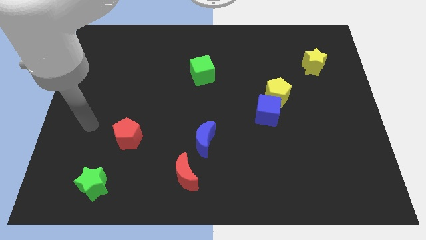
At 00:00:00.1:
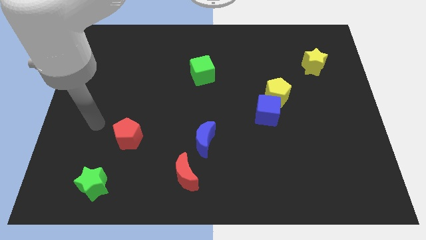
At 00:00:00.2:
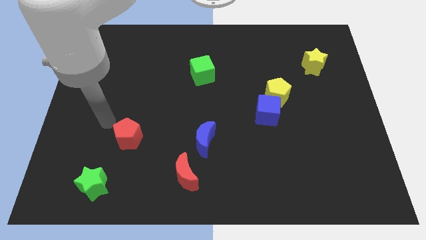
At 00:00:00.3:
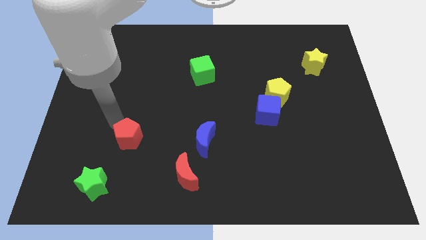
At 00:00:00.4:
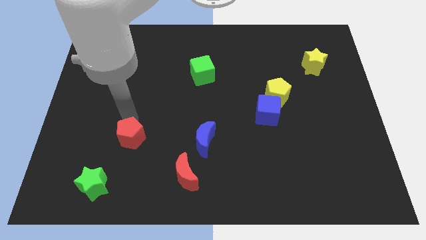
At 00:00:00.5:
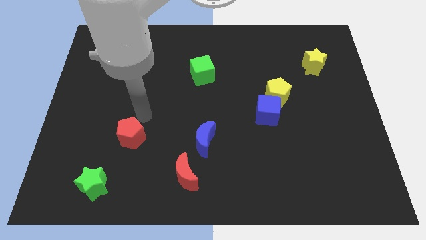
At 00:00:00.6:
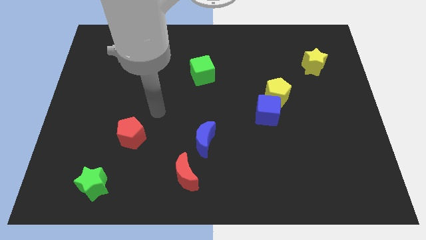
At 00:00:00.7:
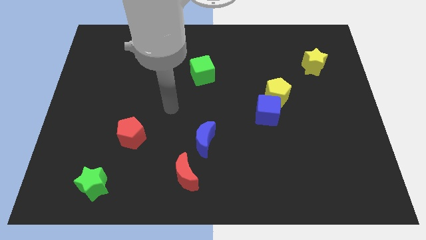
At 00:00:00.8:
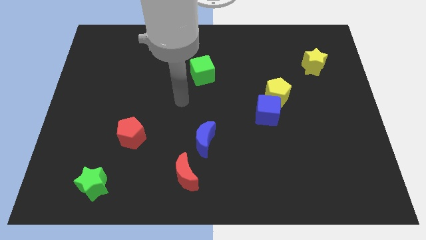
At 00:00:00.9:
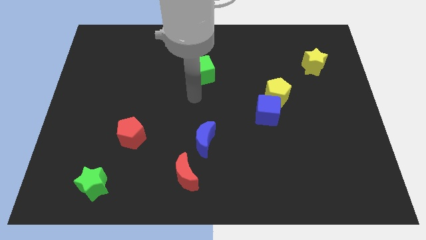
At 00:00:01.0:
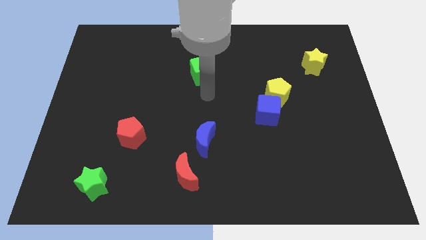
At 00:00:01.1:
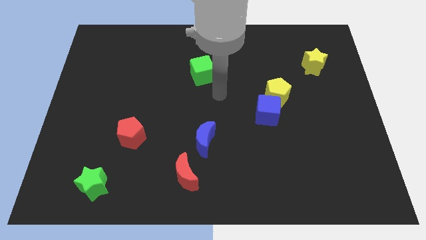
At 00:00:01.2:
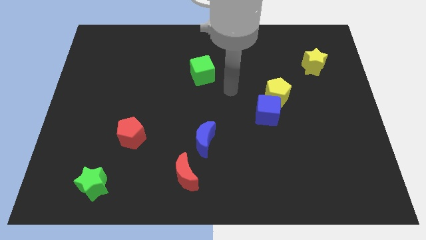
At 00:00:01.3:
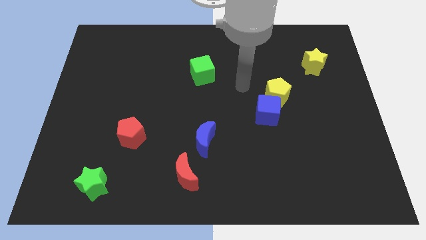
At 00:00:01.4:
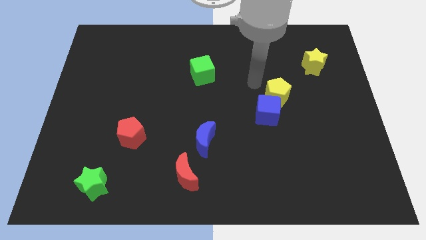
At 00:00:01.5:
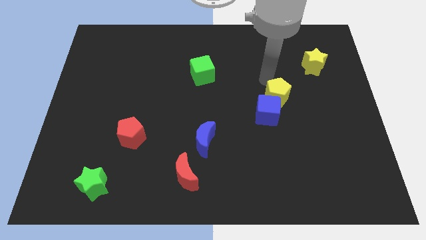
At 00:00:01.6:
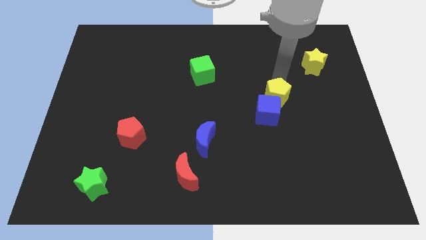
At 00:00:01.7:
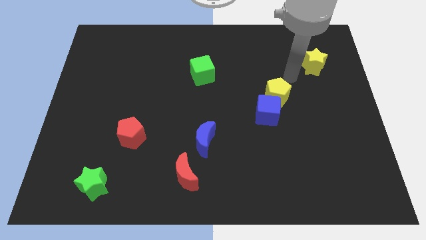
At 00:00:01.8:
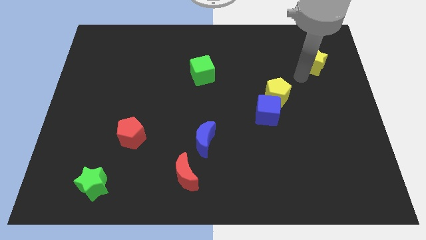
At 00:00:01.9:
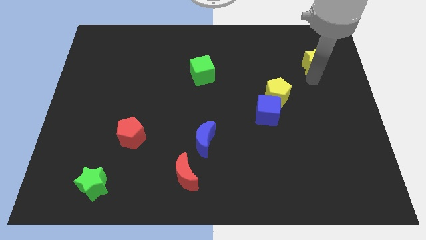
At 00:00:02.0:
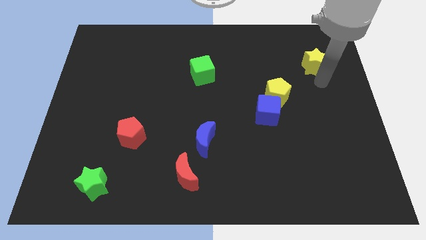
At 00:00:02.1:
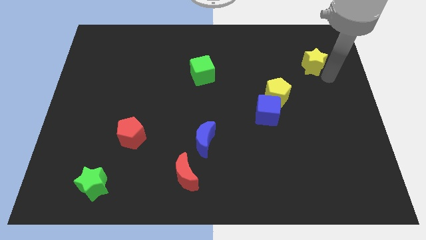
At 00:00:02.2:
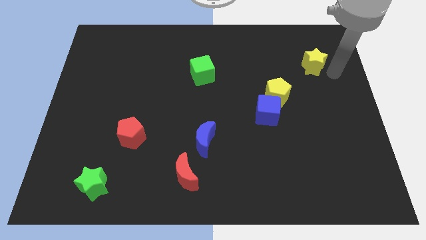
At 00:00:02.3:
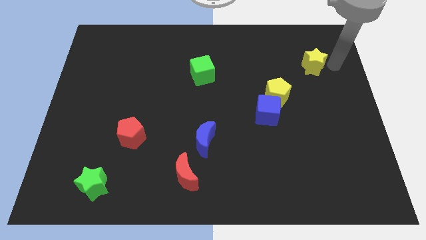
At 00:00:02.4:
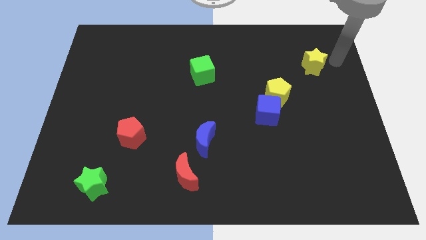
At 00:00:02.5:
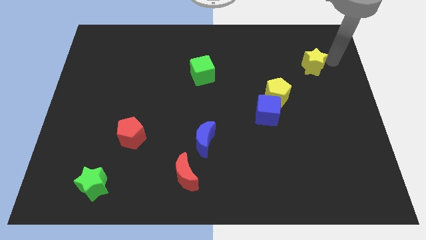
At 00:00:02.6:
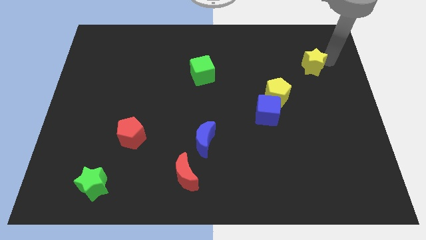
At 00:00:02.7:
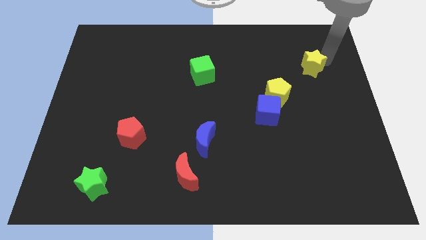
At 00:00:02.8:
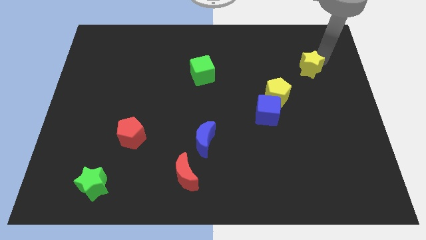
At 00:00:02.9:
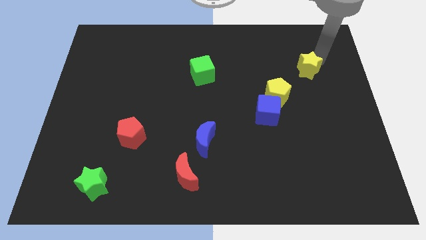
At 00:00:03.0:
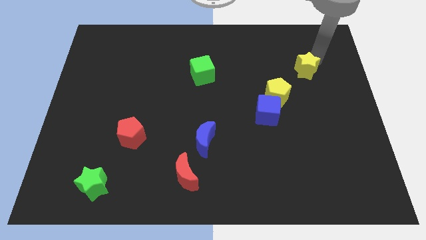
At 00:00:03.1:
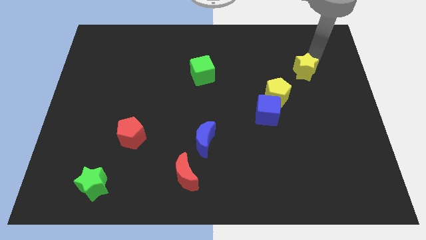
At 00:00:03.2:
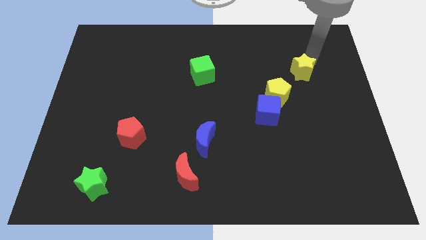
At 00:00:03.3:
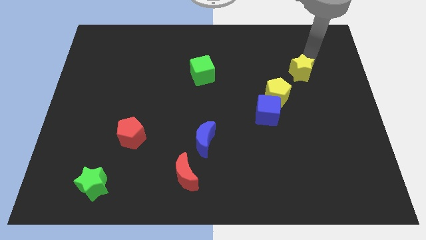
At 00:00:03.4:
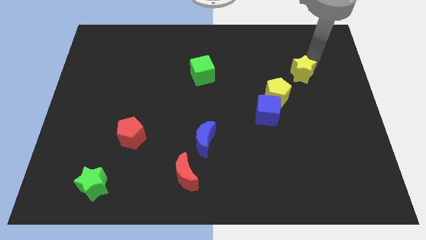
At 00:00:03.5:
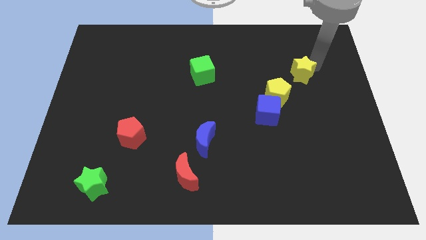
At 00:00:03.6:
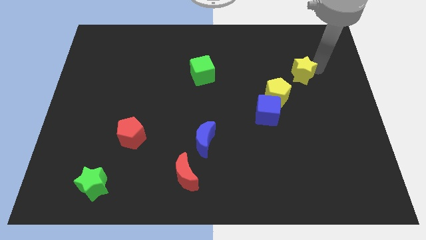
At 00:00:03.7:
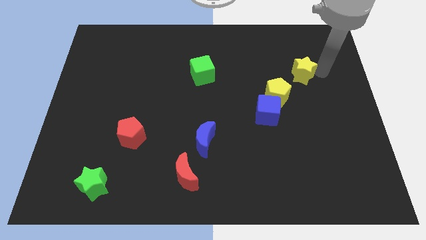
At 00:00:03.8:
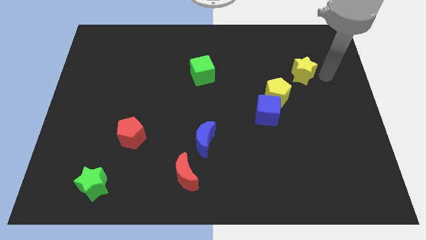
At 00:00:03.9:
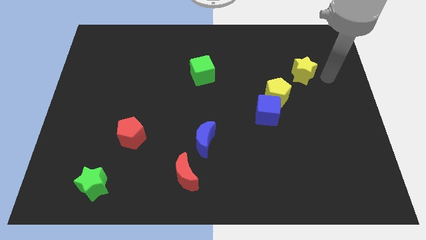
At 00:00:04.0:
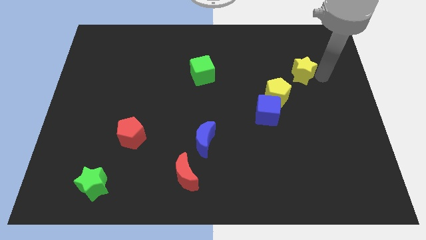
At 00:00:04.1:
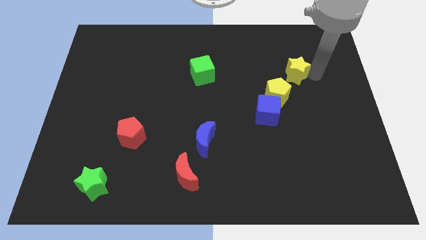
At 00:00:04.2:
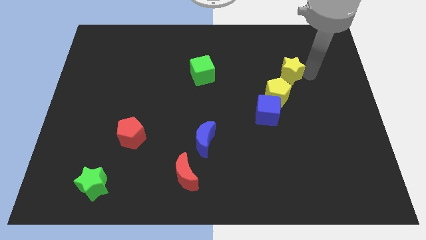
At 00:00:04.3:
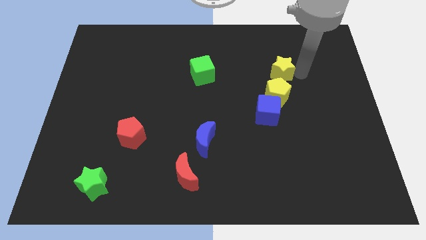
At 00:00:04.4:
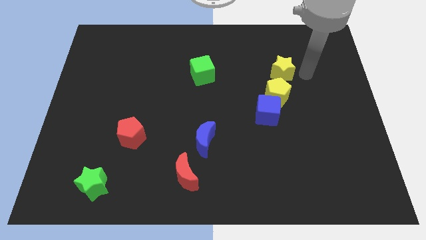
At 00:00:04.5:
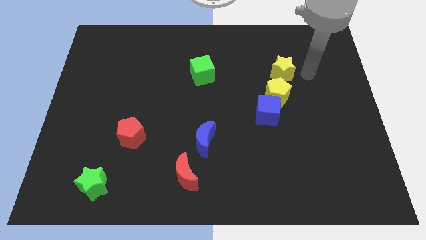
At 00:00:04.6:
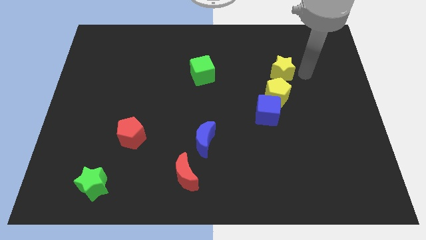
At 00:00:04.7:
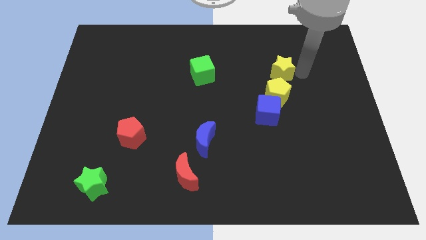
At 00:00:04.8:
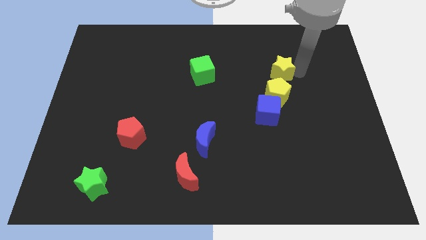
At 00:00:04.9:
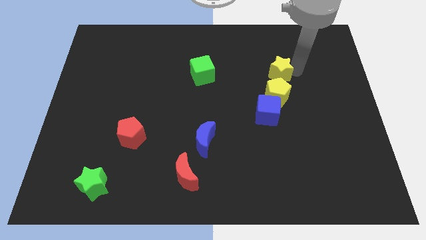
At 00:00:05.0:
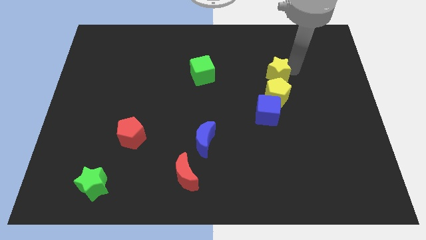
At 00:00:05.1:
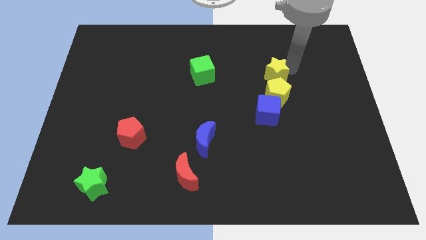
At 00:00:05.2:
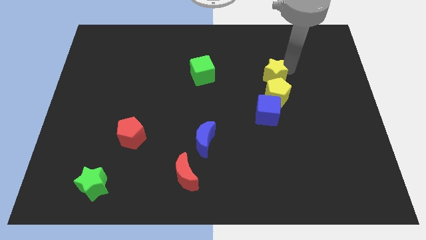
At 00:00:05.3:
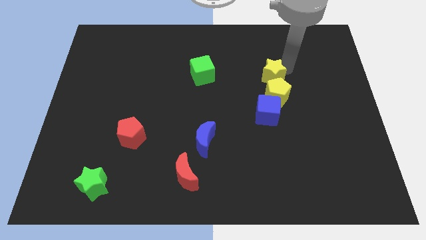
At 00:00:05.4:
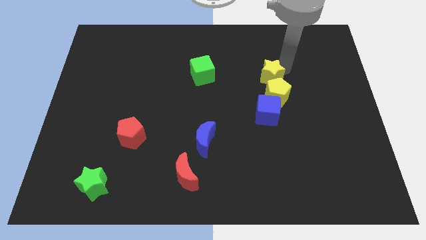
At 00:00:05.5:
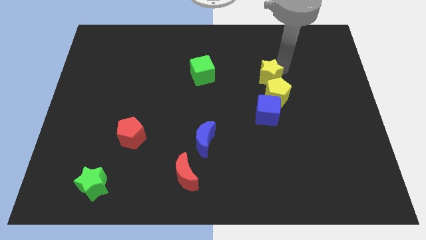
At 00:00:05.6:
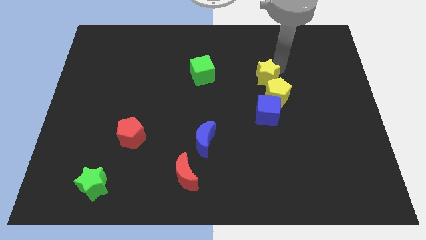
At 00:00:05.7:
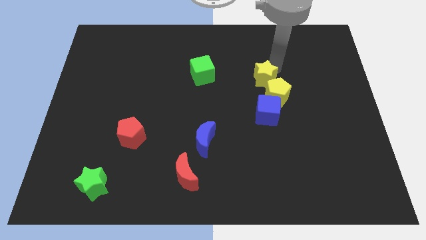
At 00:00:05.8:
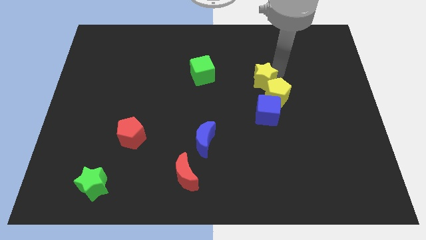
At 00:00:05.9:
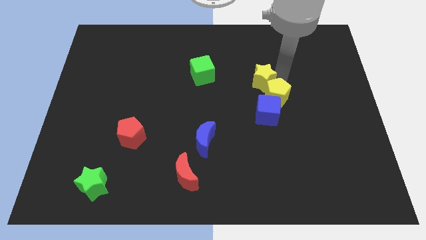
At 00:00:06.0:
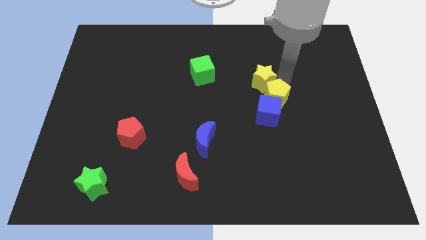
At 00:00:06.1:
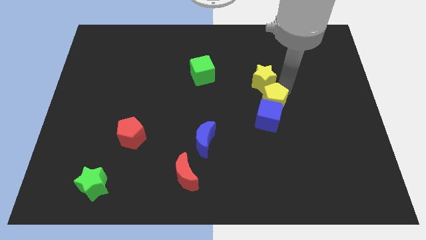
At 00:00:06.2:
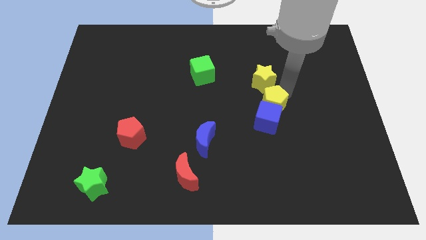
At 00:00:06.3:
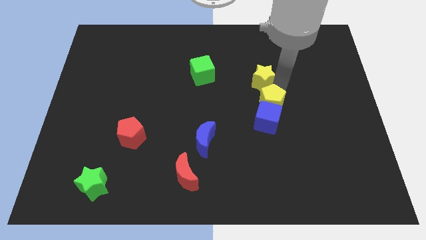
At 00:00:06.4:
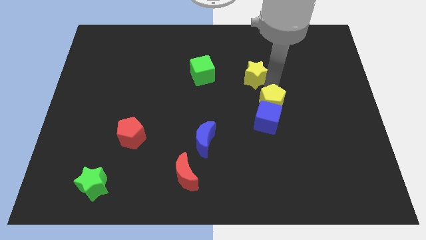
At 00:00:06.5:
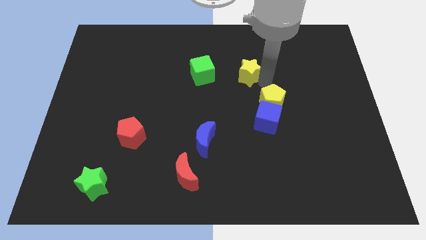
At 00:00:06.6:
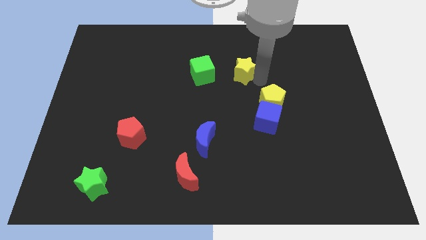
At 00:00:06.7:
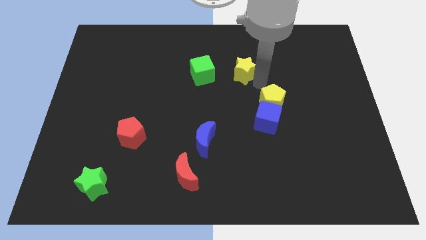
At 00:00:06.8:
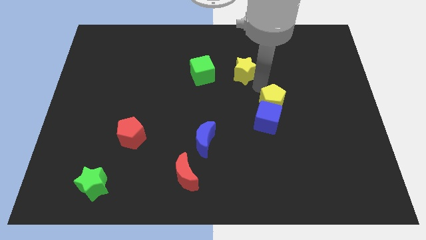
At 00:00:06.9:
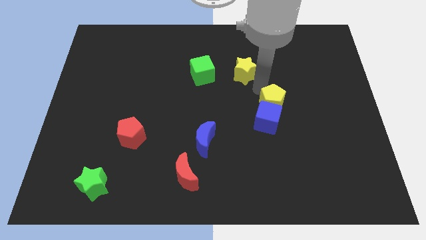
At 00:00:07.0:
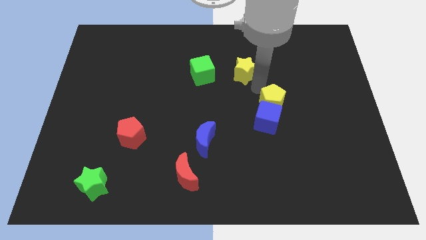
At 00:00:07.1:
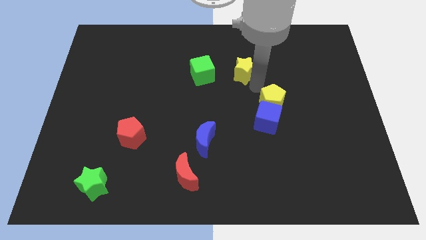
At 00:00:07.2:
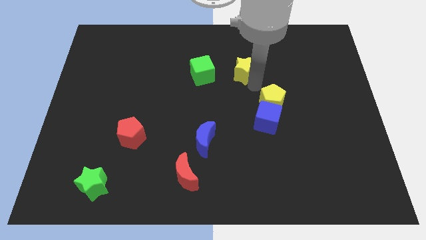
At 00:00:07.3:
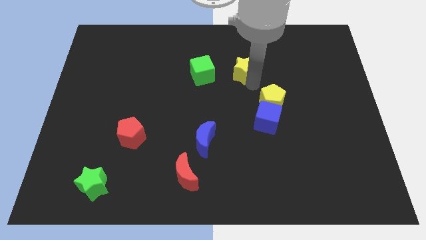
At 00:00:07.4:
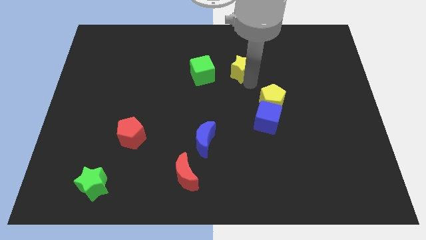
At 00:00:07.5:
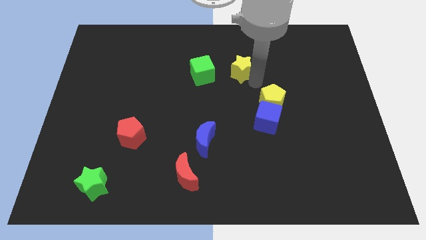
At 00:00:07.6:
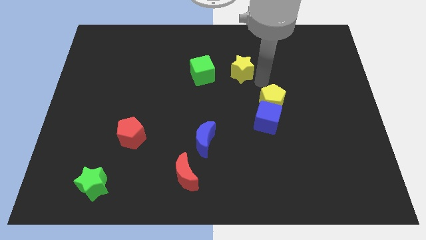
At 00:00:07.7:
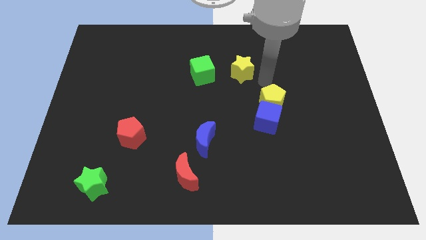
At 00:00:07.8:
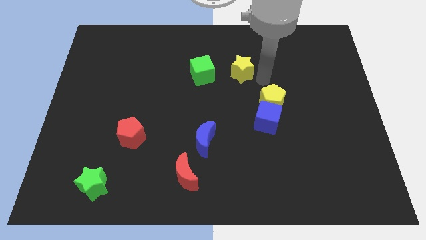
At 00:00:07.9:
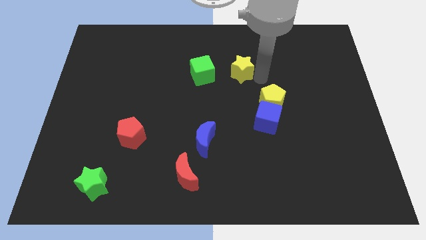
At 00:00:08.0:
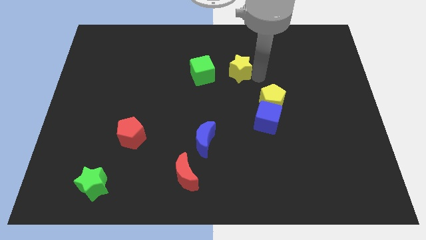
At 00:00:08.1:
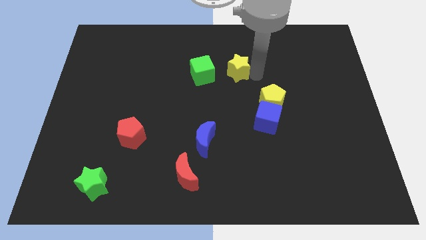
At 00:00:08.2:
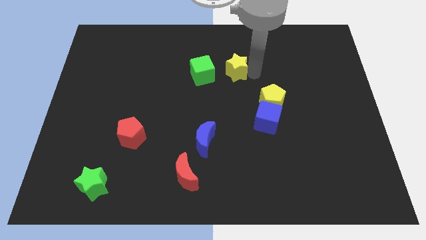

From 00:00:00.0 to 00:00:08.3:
slide the yellow star to the left
